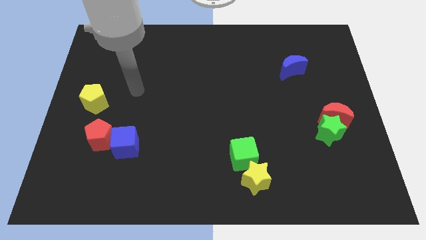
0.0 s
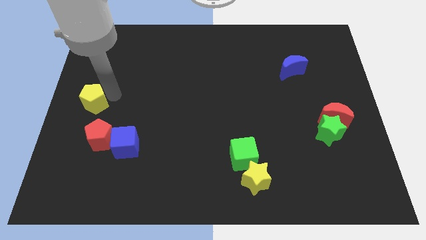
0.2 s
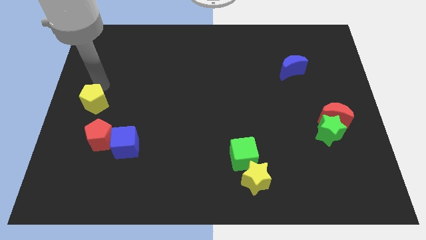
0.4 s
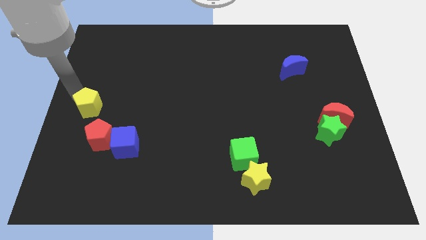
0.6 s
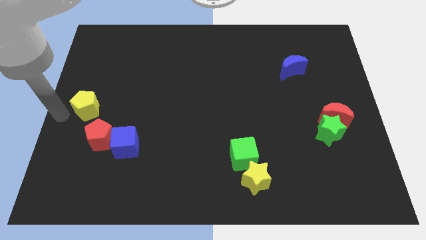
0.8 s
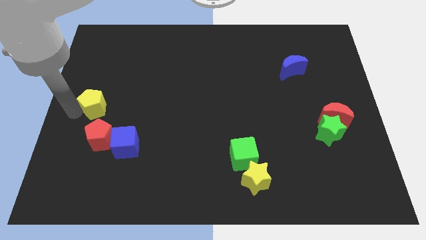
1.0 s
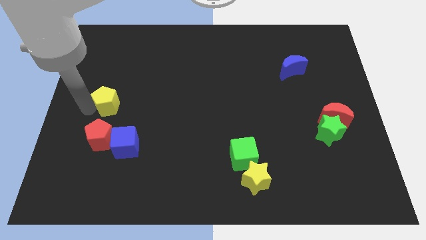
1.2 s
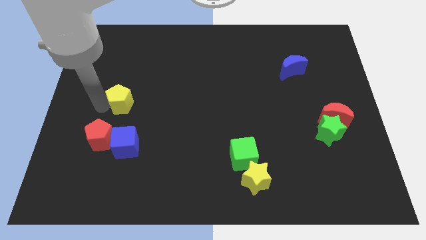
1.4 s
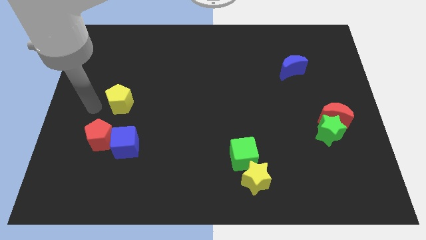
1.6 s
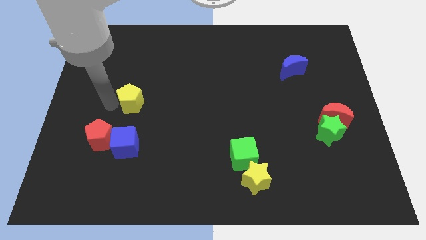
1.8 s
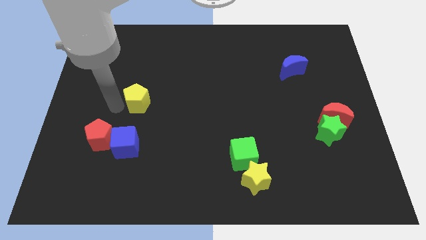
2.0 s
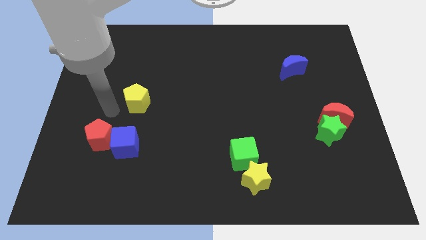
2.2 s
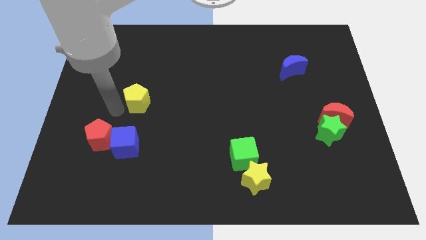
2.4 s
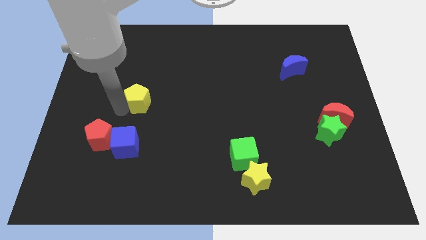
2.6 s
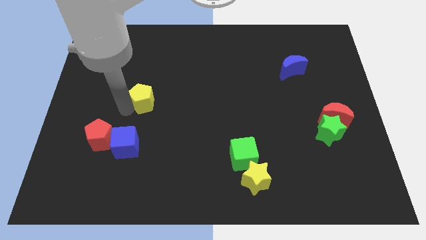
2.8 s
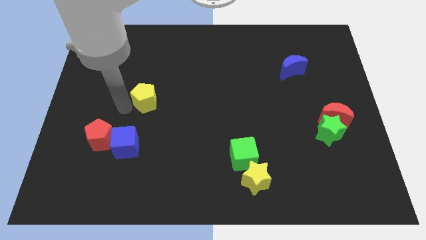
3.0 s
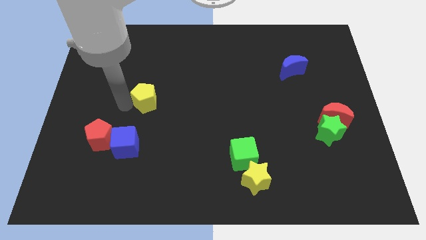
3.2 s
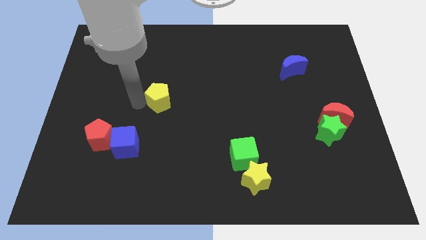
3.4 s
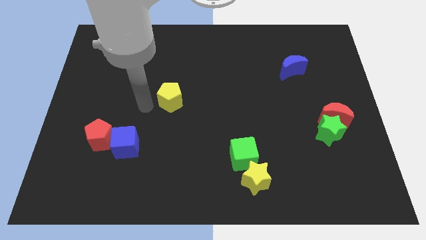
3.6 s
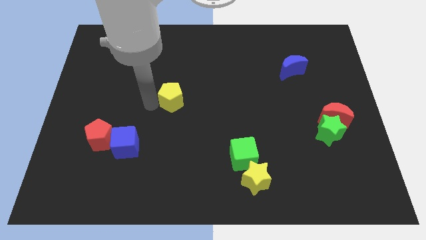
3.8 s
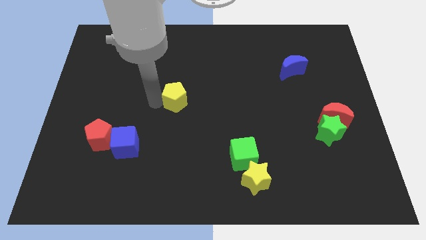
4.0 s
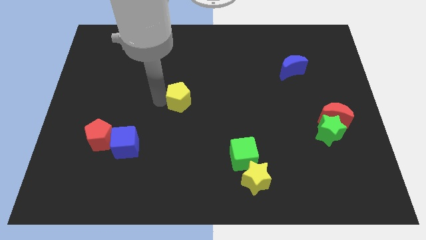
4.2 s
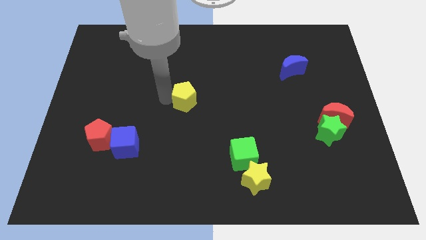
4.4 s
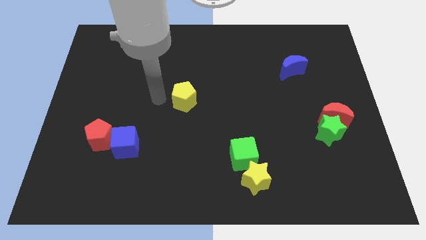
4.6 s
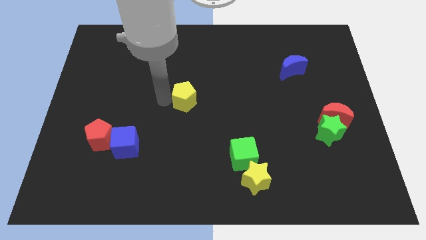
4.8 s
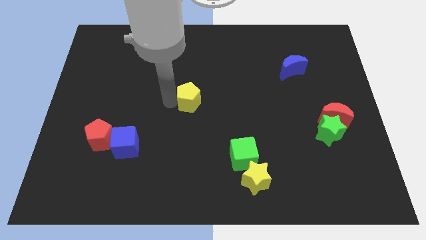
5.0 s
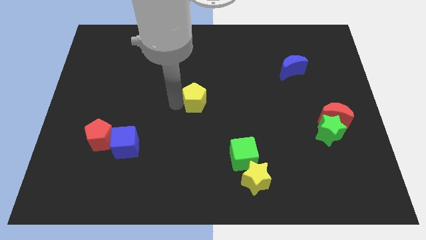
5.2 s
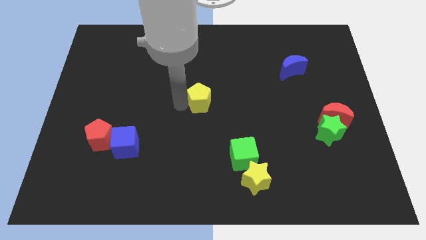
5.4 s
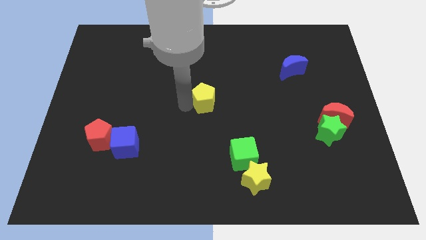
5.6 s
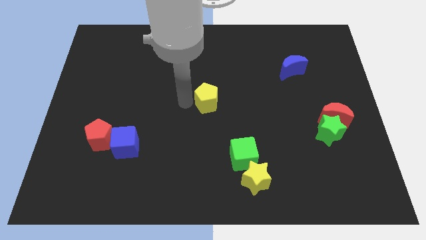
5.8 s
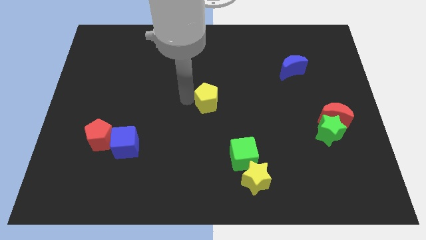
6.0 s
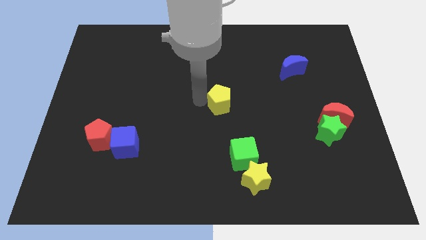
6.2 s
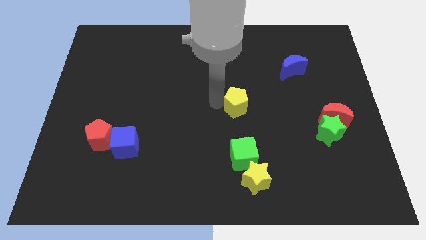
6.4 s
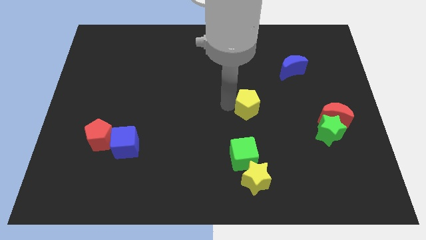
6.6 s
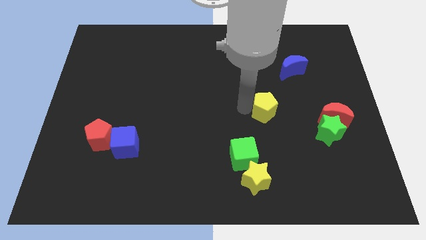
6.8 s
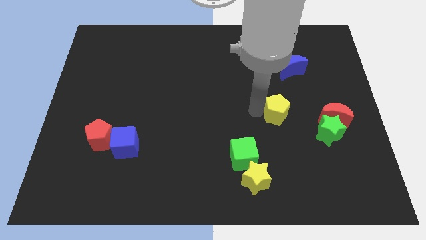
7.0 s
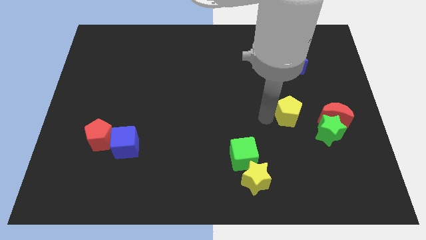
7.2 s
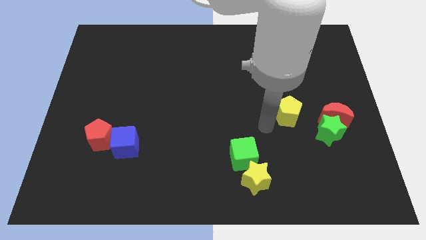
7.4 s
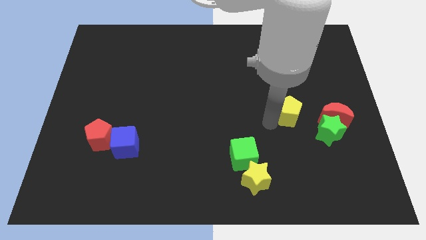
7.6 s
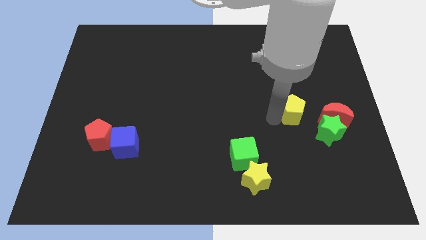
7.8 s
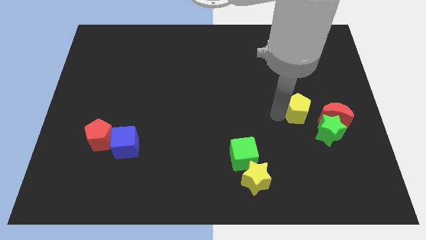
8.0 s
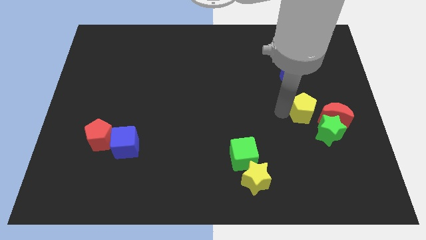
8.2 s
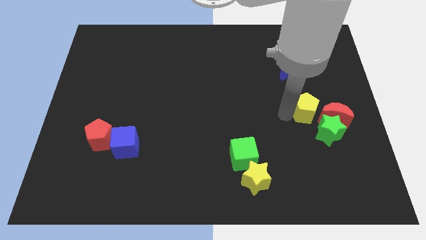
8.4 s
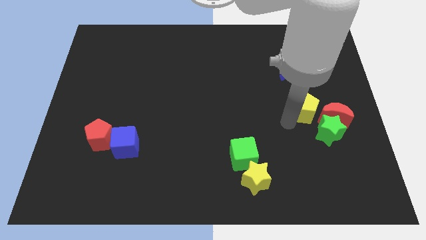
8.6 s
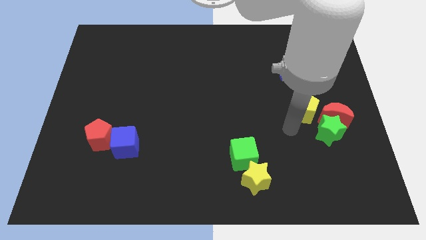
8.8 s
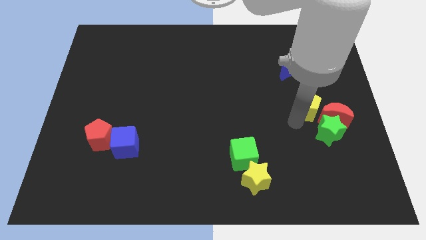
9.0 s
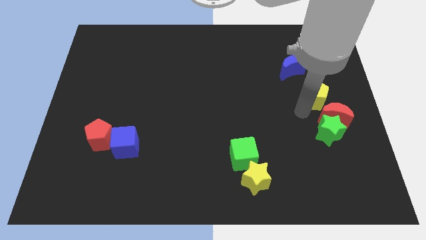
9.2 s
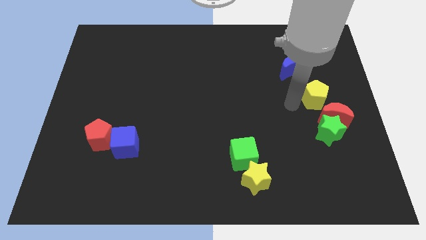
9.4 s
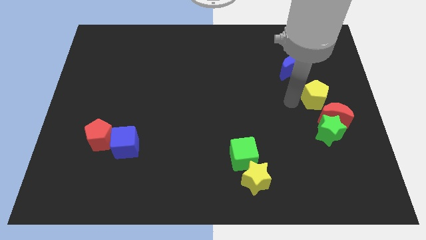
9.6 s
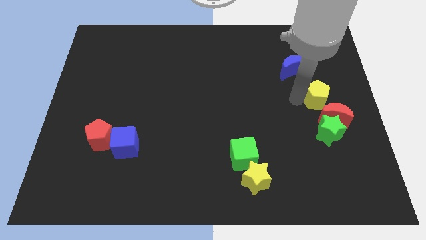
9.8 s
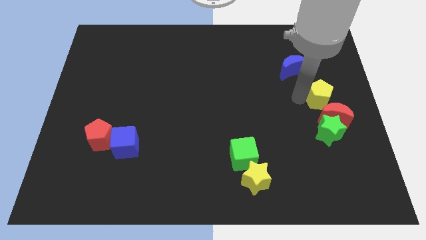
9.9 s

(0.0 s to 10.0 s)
push the yellow pentagon to the right side
